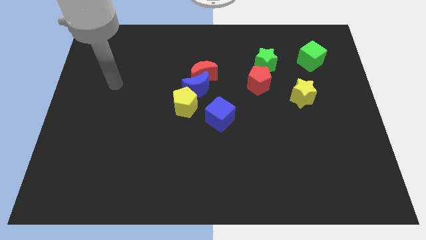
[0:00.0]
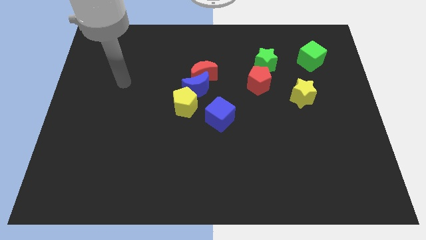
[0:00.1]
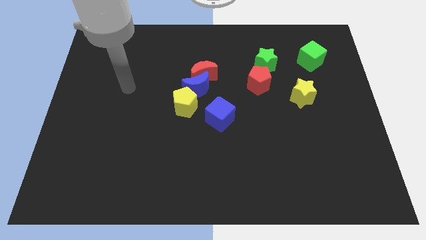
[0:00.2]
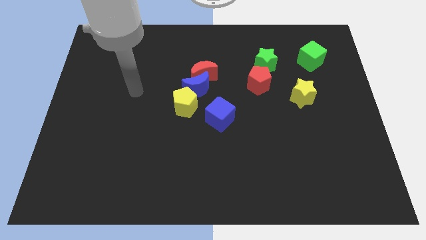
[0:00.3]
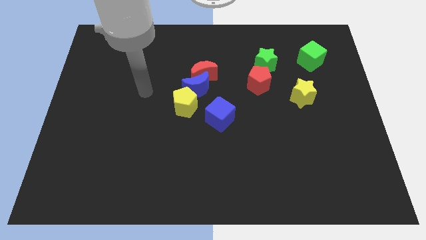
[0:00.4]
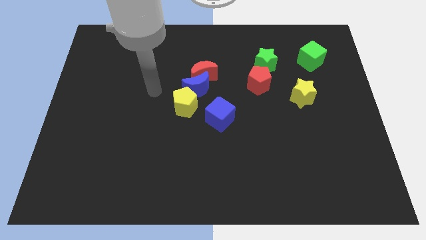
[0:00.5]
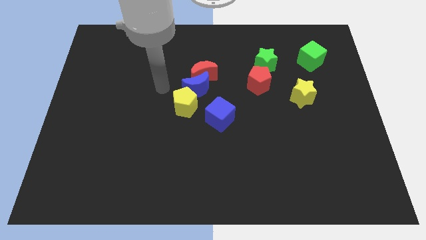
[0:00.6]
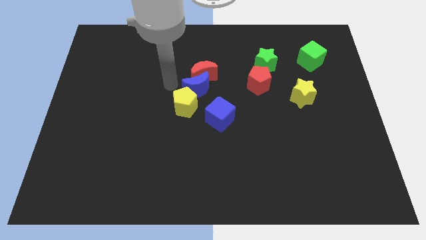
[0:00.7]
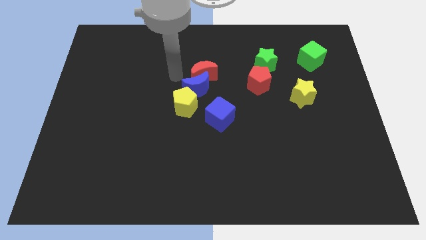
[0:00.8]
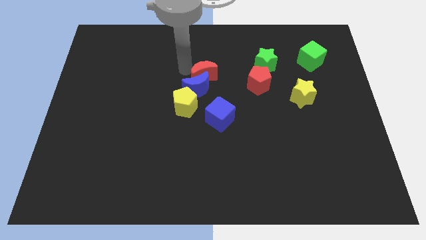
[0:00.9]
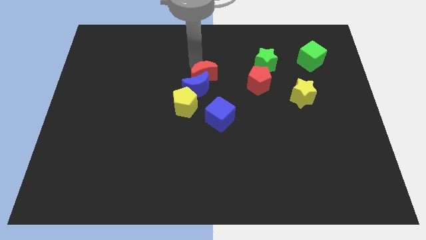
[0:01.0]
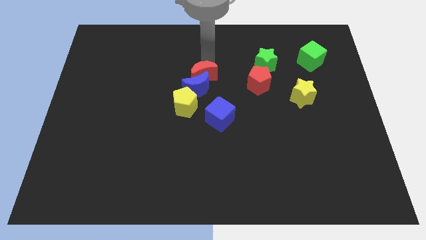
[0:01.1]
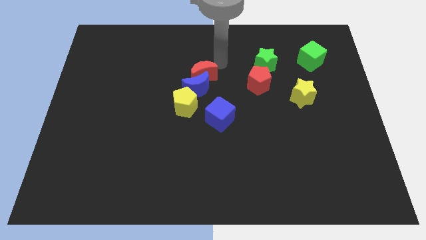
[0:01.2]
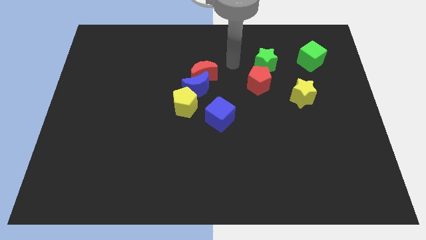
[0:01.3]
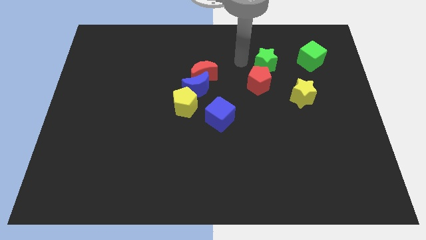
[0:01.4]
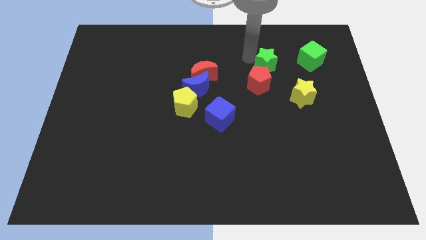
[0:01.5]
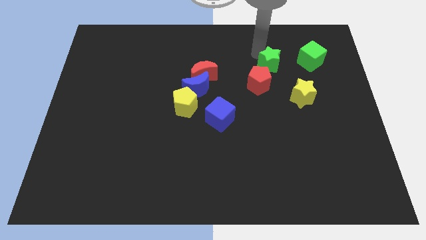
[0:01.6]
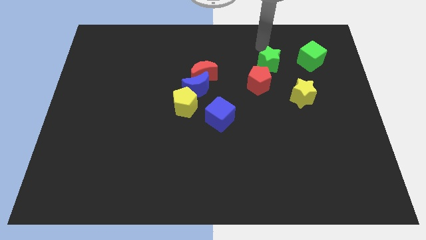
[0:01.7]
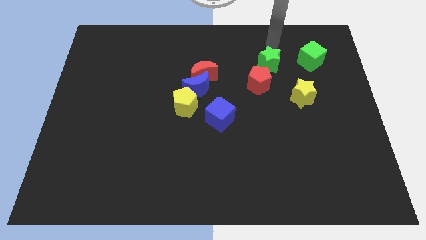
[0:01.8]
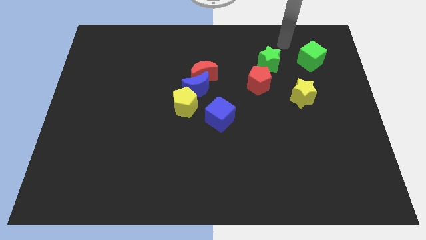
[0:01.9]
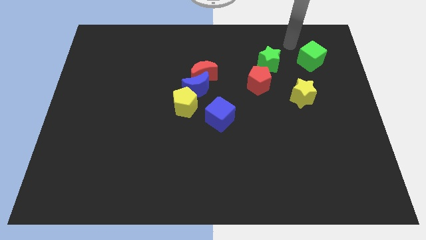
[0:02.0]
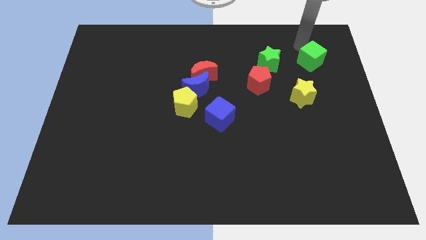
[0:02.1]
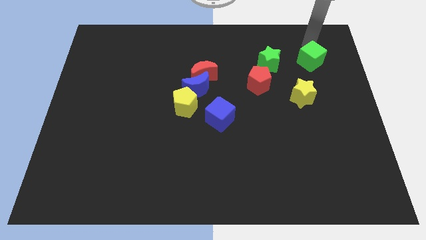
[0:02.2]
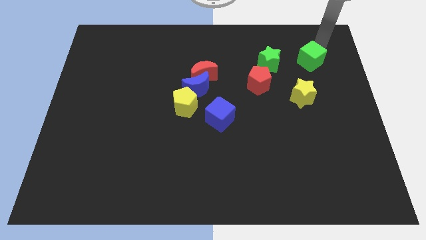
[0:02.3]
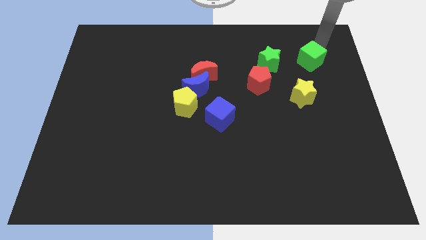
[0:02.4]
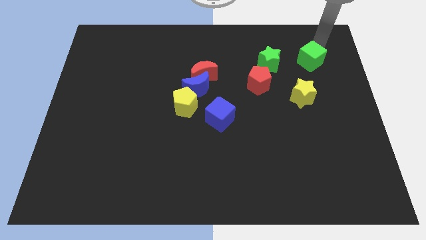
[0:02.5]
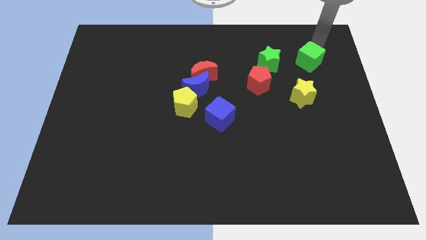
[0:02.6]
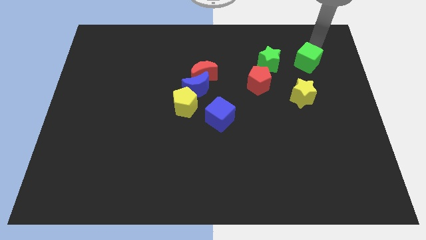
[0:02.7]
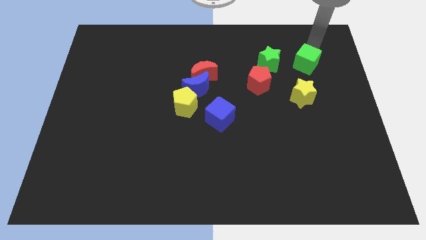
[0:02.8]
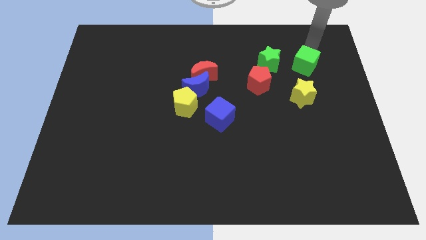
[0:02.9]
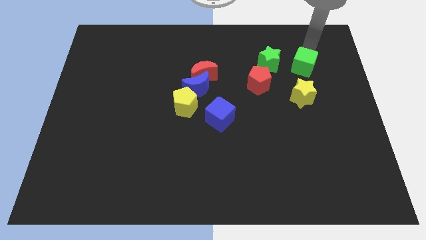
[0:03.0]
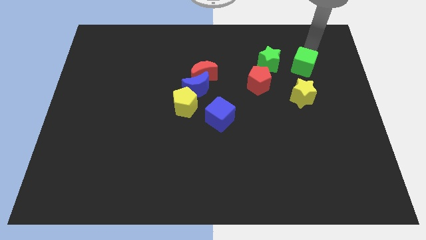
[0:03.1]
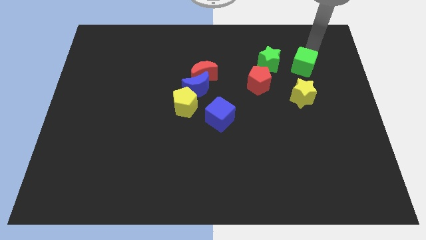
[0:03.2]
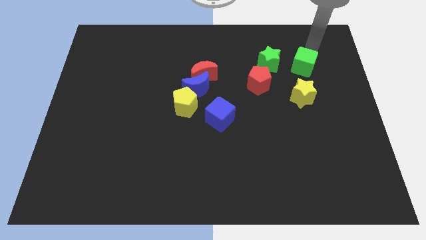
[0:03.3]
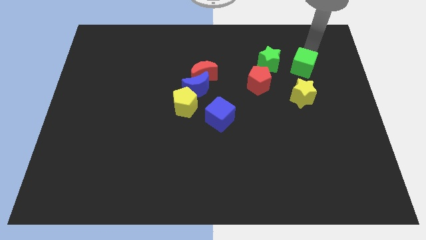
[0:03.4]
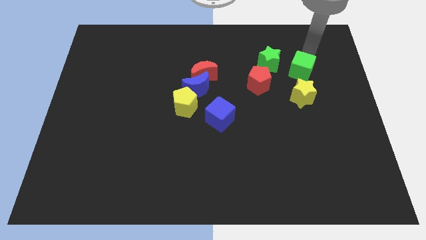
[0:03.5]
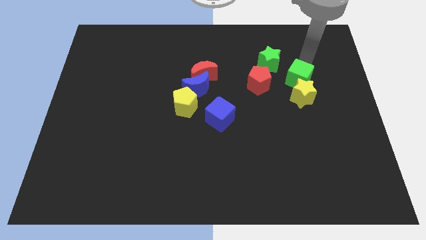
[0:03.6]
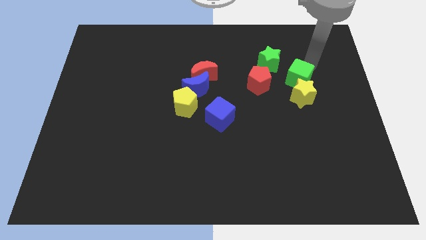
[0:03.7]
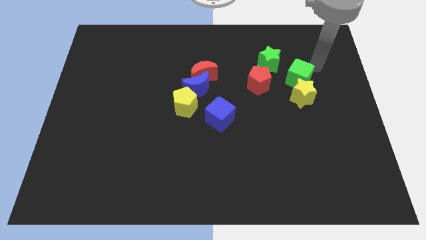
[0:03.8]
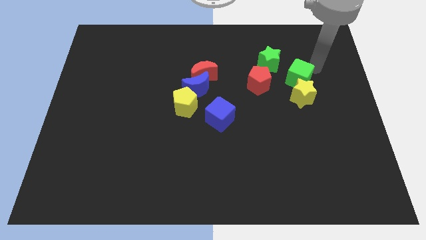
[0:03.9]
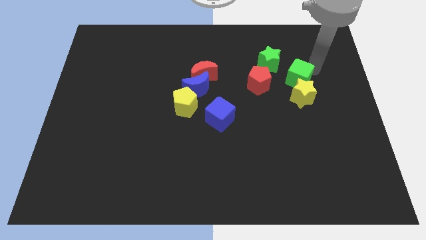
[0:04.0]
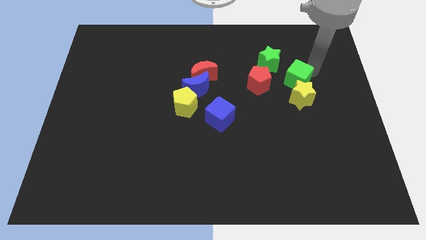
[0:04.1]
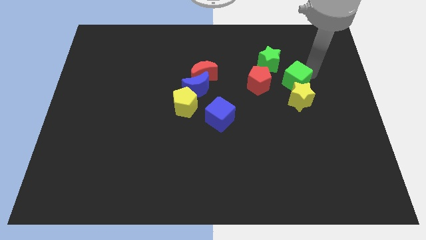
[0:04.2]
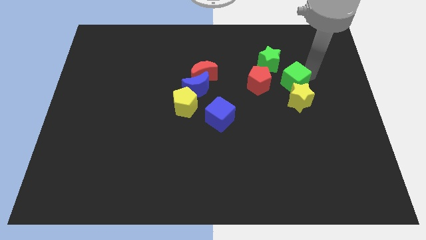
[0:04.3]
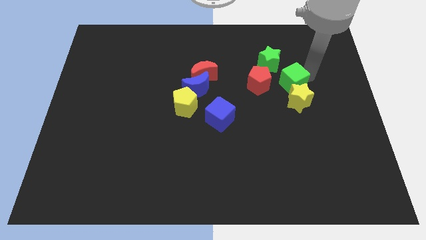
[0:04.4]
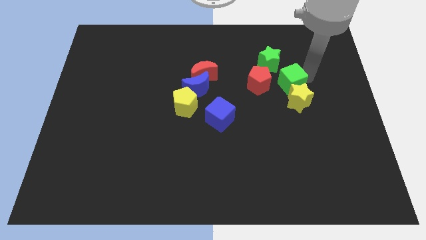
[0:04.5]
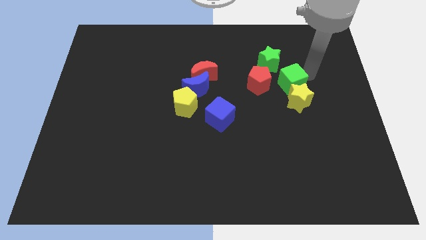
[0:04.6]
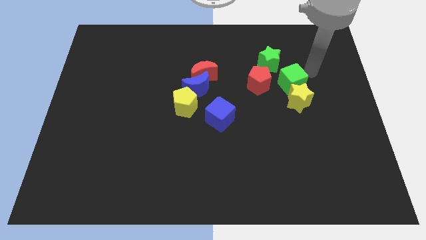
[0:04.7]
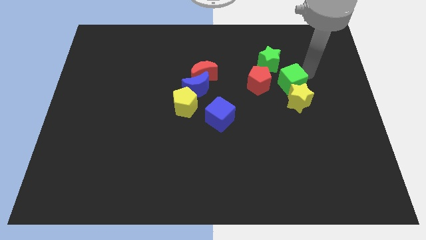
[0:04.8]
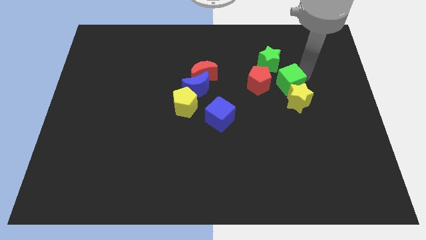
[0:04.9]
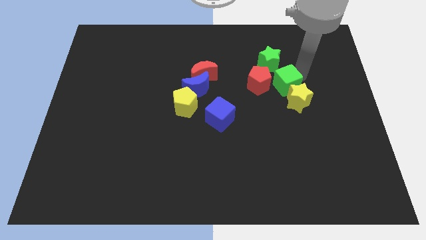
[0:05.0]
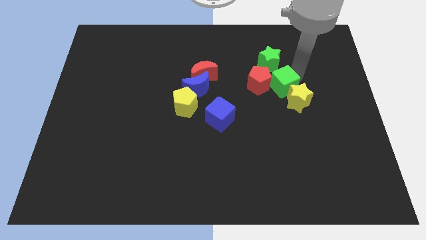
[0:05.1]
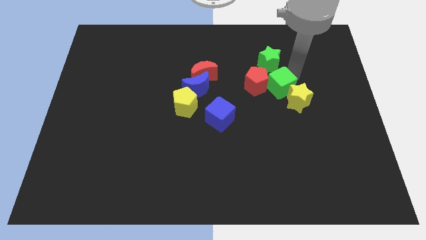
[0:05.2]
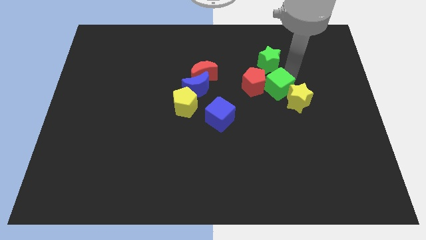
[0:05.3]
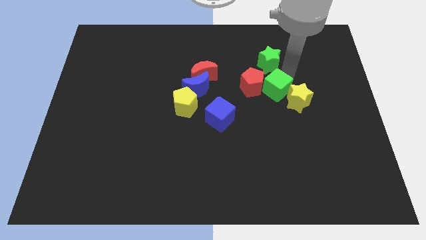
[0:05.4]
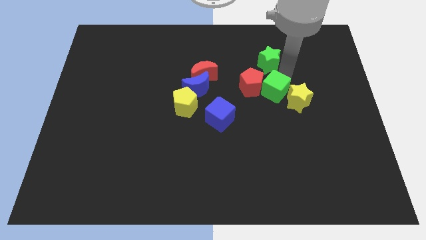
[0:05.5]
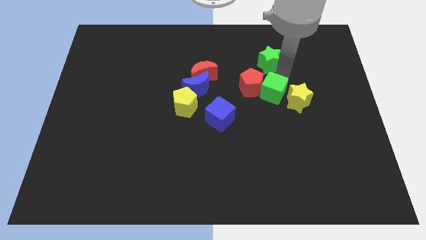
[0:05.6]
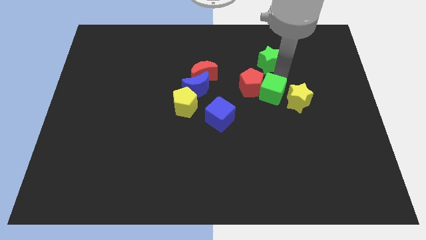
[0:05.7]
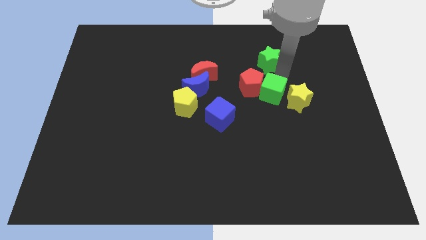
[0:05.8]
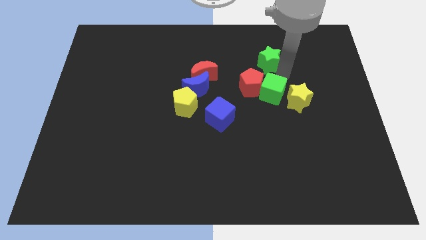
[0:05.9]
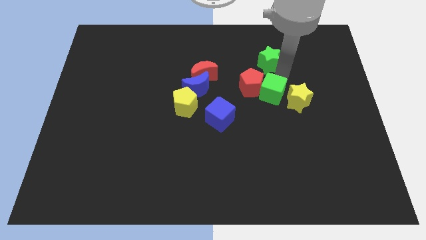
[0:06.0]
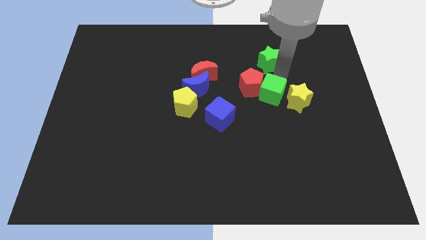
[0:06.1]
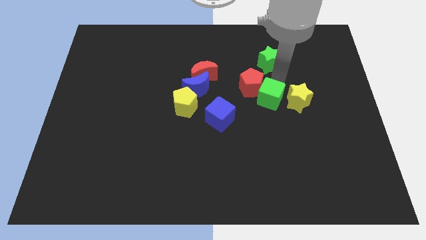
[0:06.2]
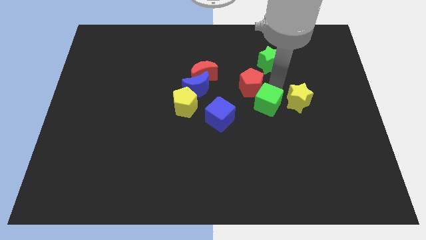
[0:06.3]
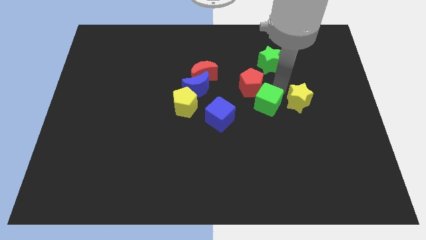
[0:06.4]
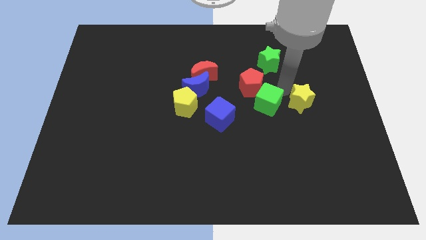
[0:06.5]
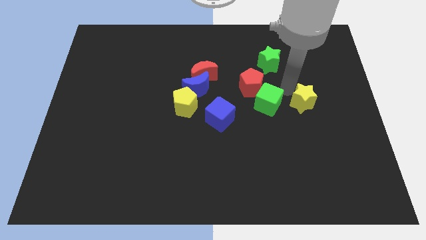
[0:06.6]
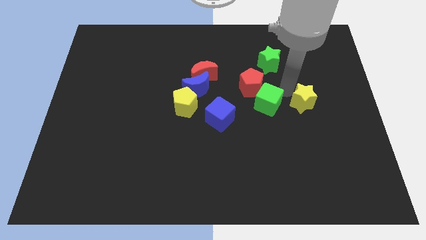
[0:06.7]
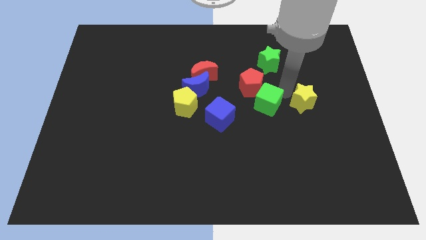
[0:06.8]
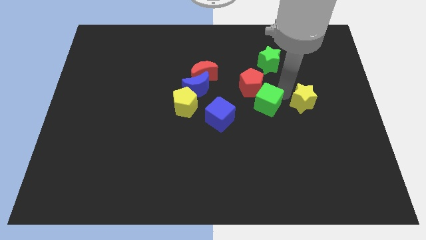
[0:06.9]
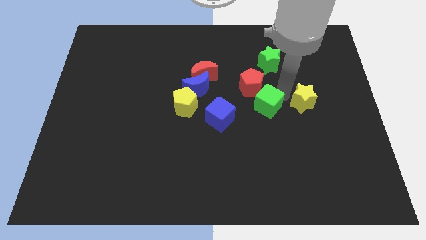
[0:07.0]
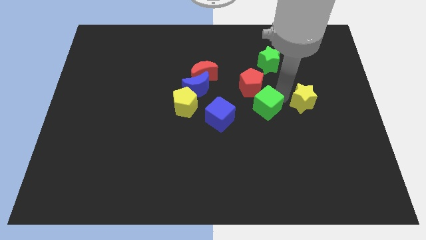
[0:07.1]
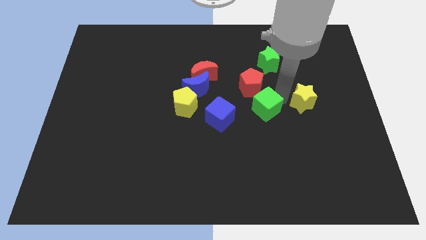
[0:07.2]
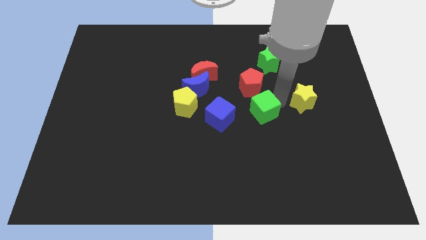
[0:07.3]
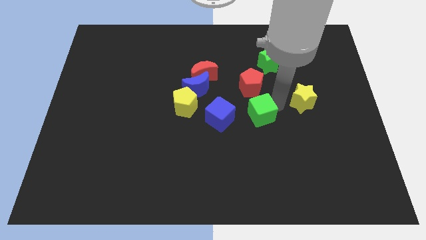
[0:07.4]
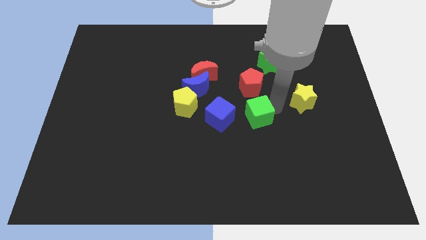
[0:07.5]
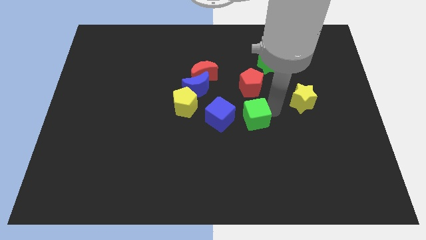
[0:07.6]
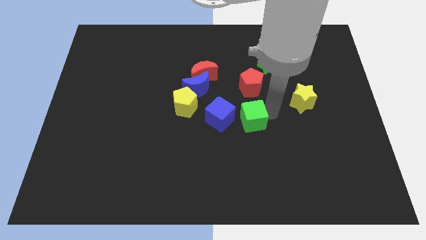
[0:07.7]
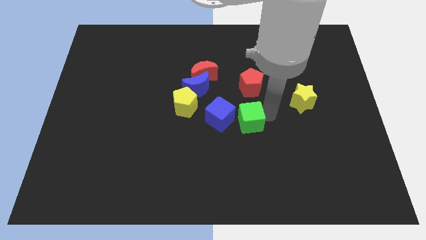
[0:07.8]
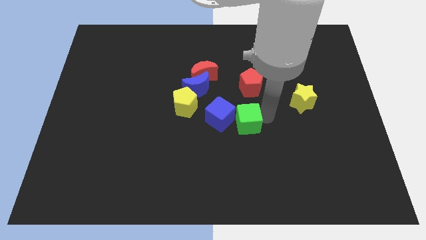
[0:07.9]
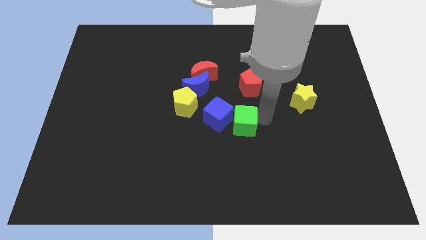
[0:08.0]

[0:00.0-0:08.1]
push the green cube to the blue cube
